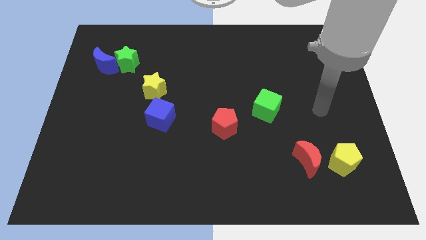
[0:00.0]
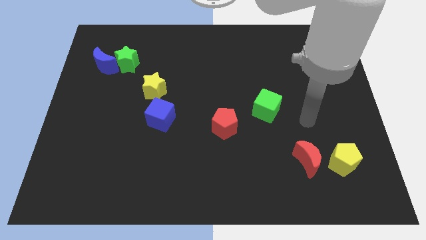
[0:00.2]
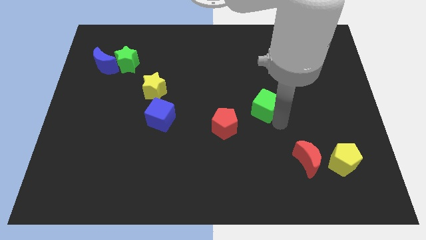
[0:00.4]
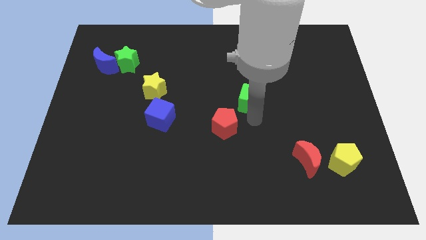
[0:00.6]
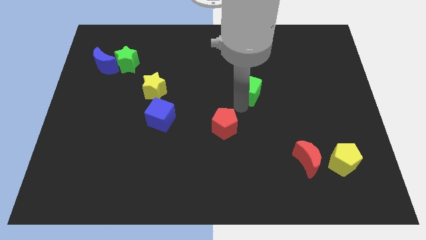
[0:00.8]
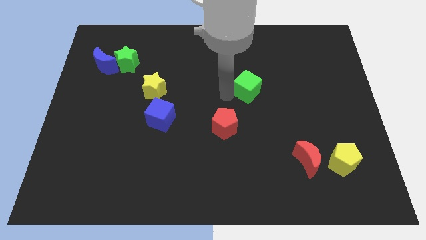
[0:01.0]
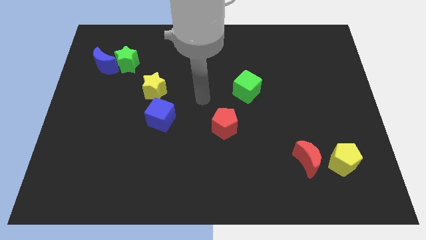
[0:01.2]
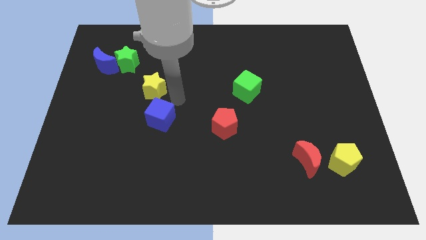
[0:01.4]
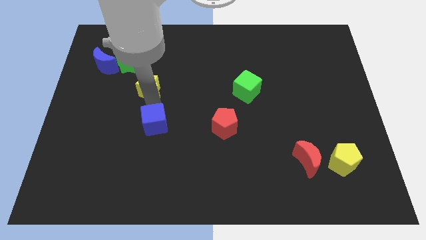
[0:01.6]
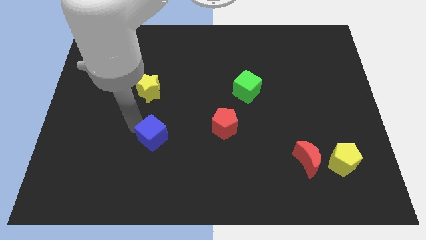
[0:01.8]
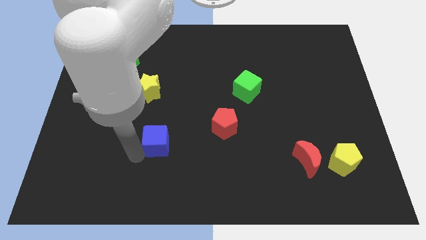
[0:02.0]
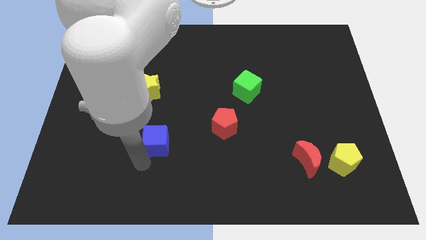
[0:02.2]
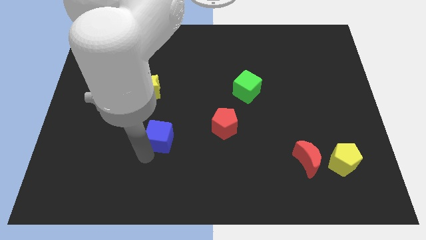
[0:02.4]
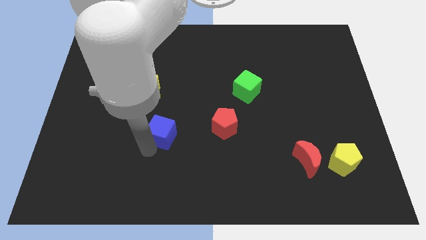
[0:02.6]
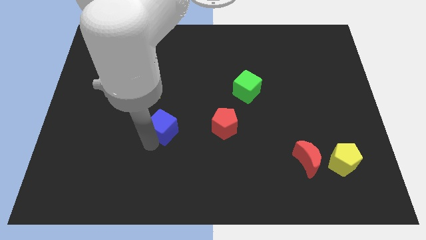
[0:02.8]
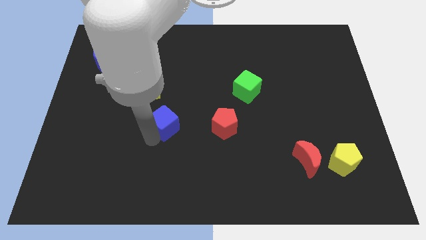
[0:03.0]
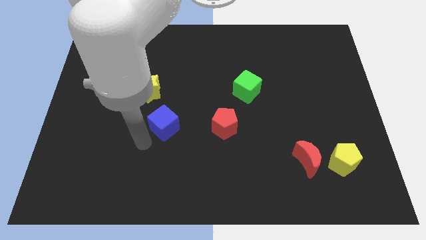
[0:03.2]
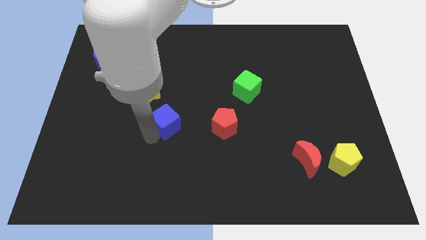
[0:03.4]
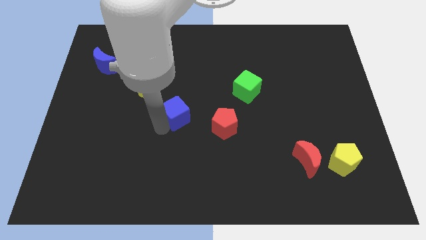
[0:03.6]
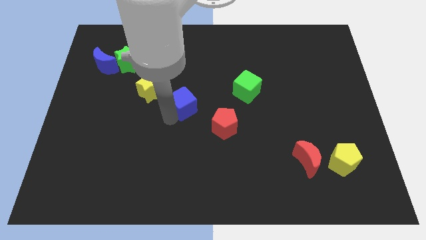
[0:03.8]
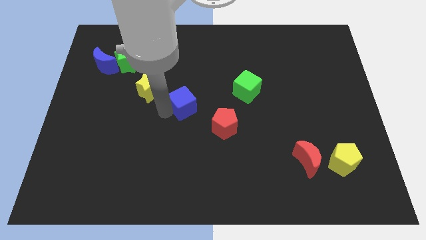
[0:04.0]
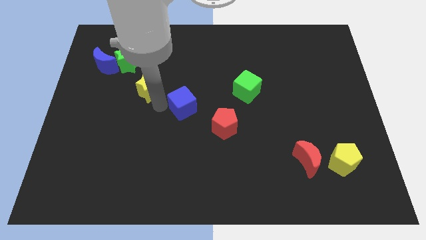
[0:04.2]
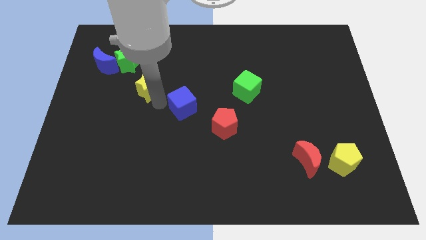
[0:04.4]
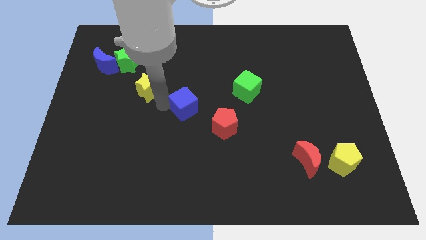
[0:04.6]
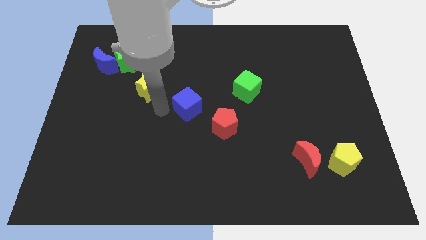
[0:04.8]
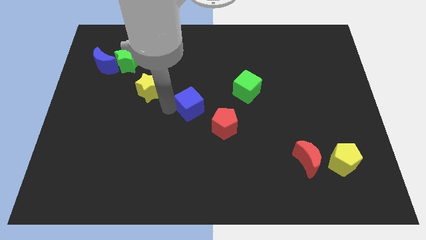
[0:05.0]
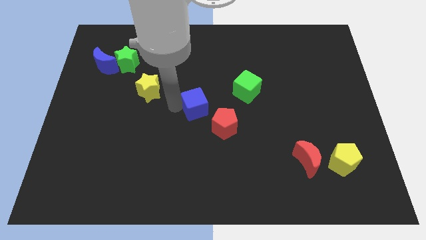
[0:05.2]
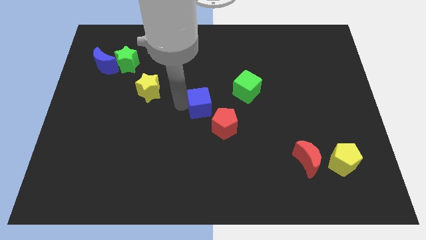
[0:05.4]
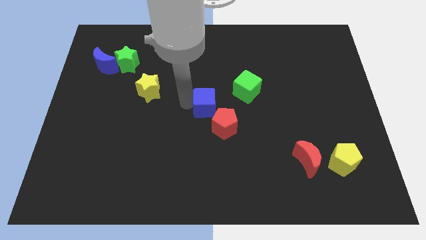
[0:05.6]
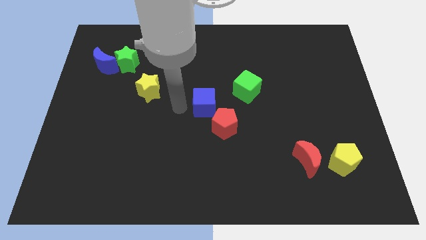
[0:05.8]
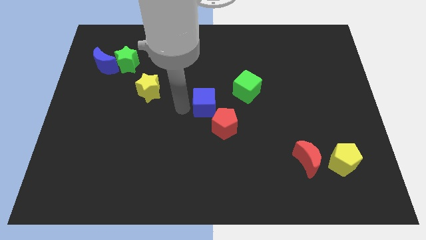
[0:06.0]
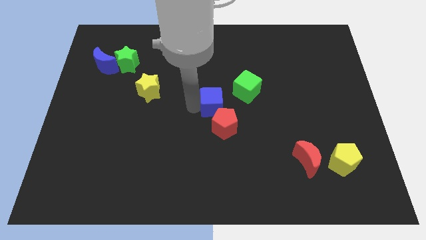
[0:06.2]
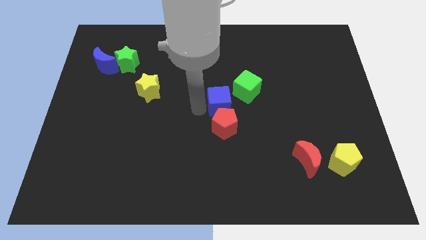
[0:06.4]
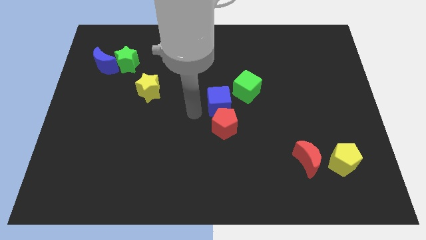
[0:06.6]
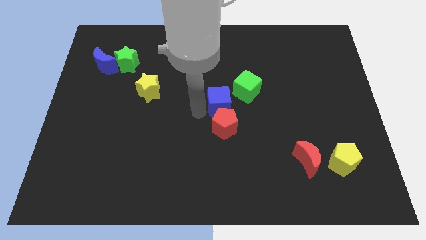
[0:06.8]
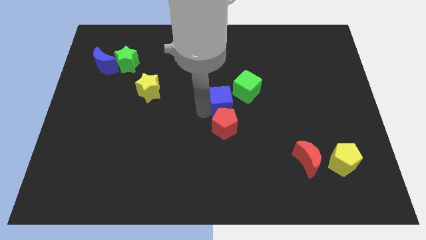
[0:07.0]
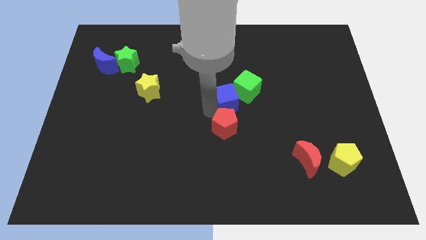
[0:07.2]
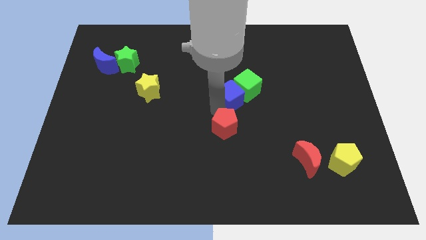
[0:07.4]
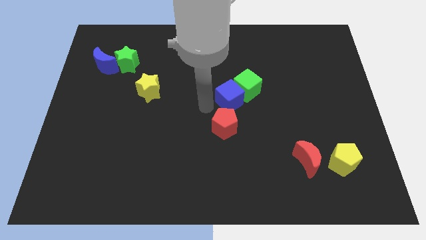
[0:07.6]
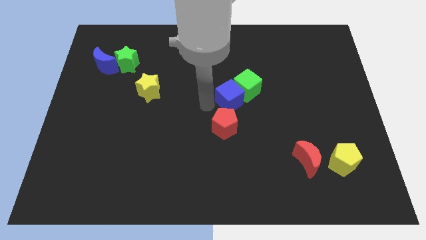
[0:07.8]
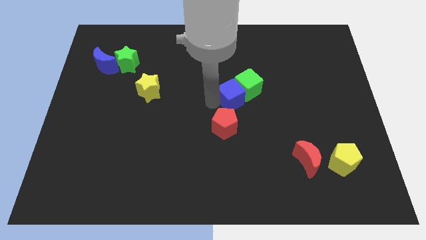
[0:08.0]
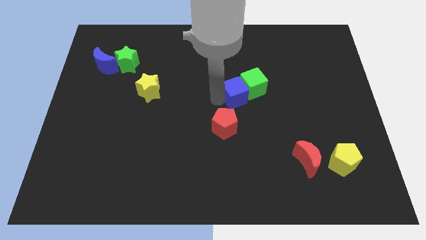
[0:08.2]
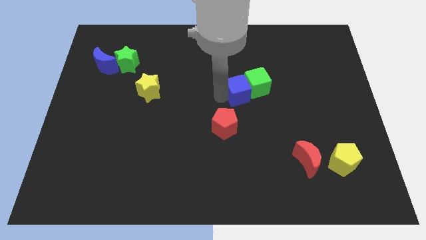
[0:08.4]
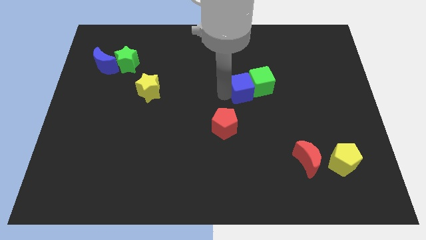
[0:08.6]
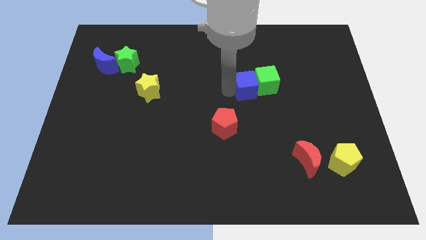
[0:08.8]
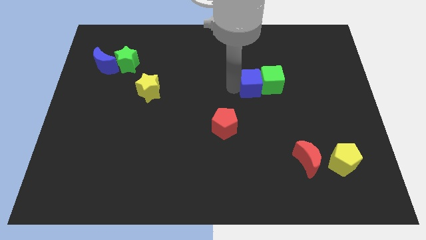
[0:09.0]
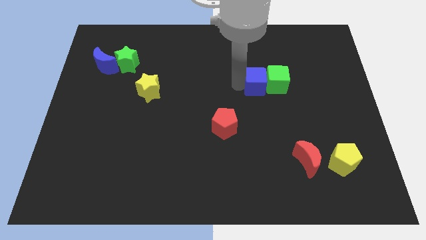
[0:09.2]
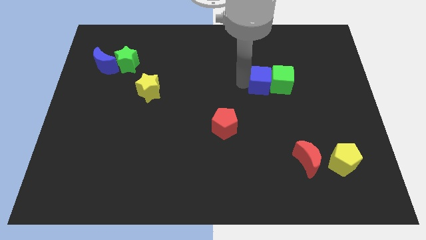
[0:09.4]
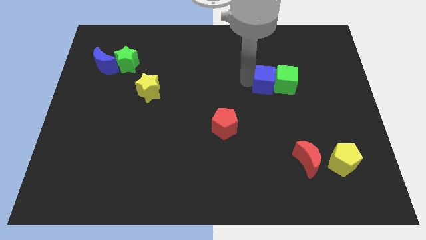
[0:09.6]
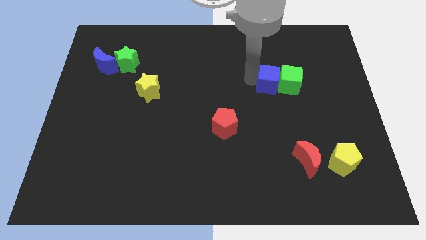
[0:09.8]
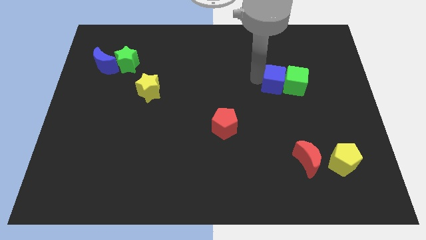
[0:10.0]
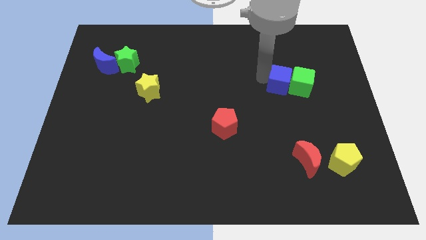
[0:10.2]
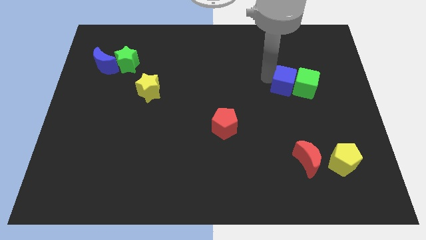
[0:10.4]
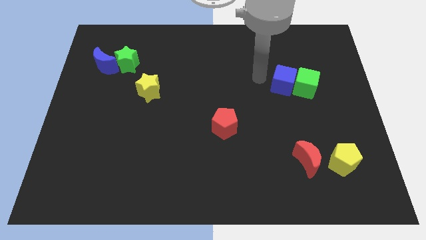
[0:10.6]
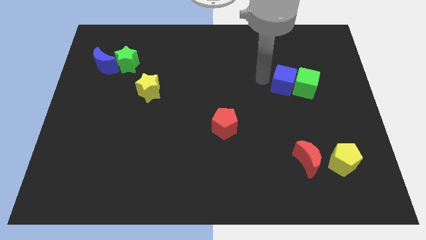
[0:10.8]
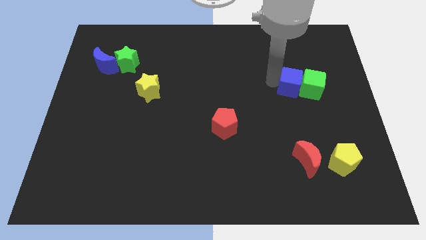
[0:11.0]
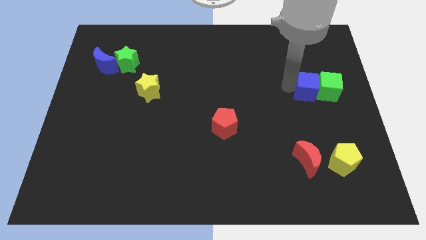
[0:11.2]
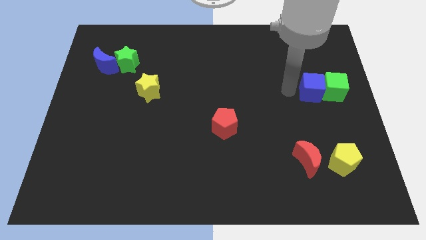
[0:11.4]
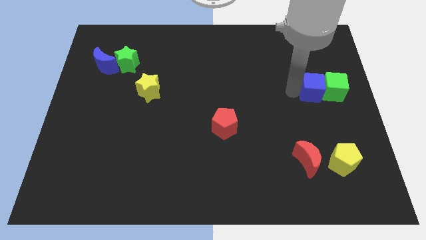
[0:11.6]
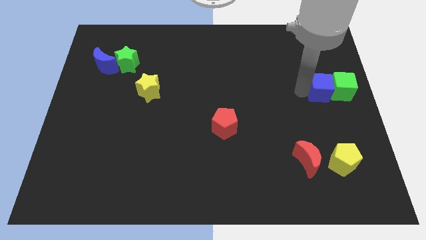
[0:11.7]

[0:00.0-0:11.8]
move the blue cube to the right side of the board
